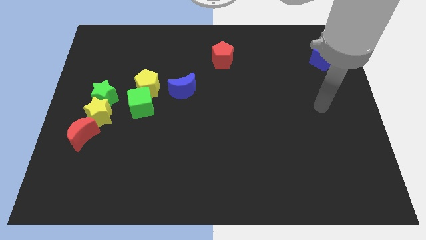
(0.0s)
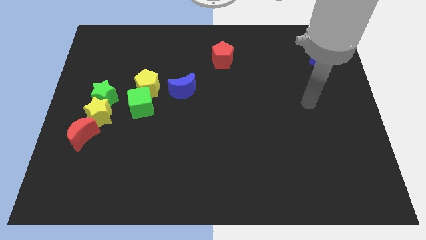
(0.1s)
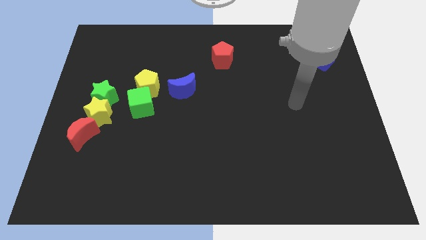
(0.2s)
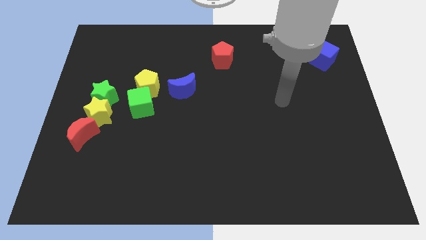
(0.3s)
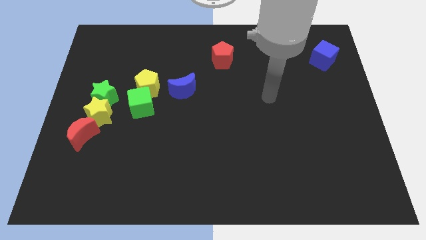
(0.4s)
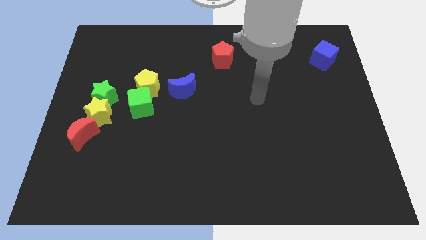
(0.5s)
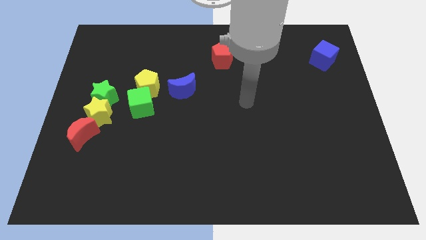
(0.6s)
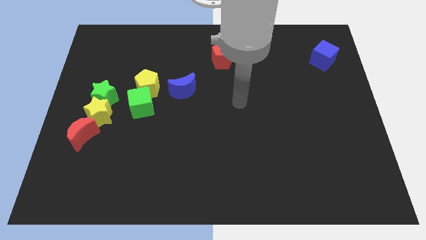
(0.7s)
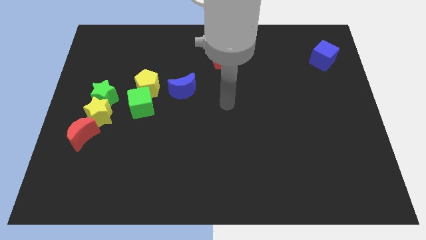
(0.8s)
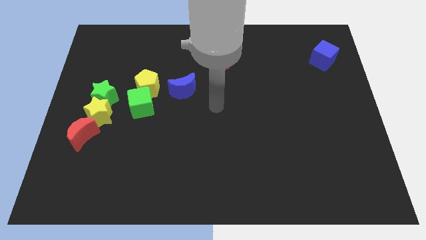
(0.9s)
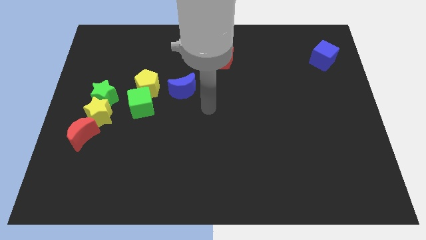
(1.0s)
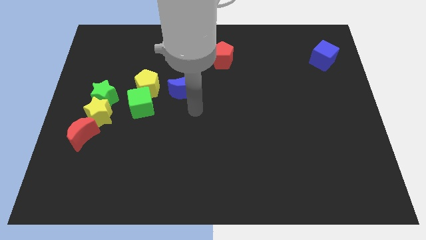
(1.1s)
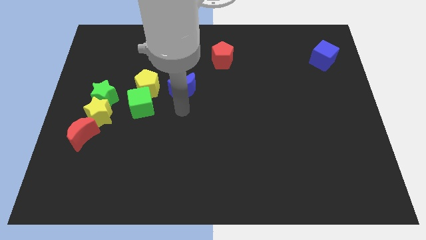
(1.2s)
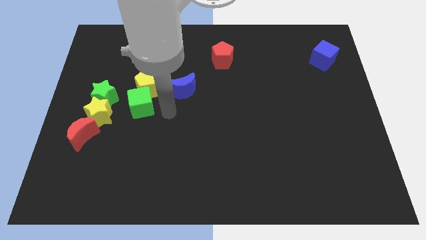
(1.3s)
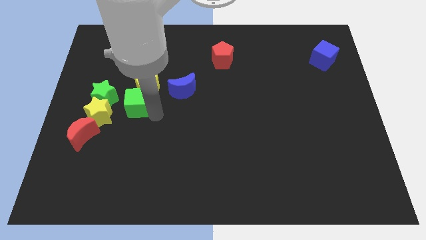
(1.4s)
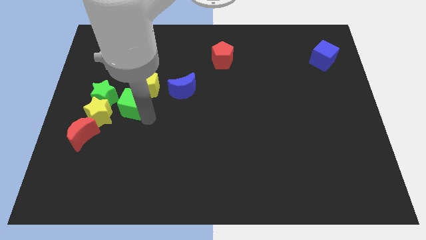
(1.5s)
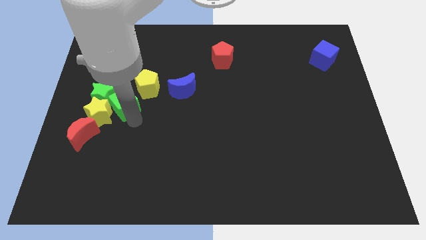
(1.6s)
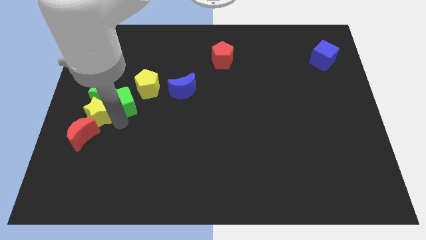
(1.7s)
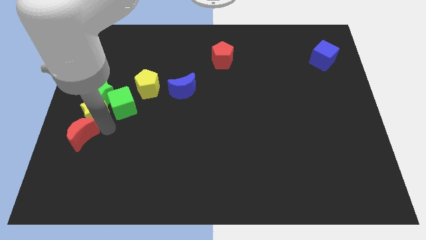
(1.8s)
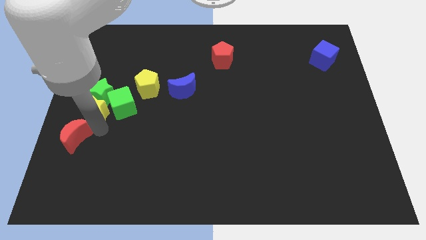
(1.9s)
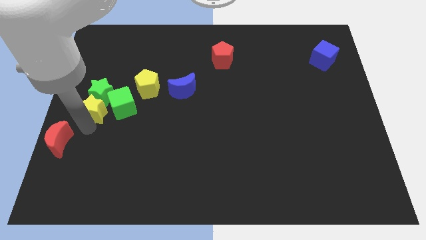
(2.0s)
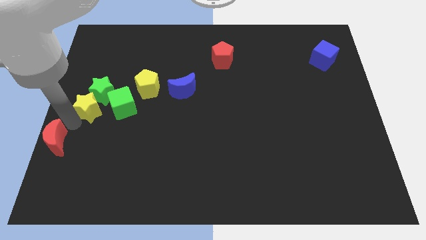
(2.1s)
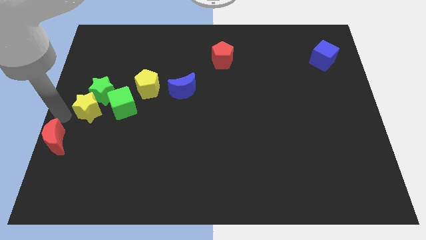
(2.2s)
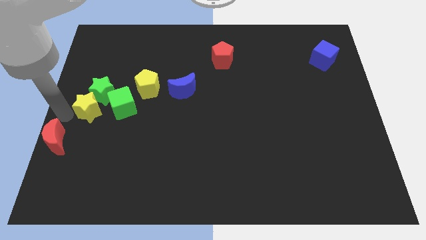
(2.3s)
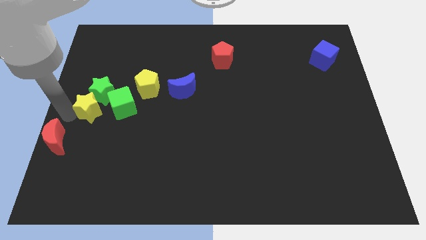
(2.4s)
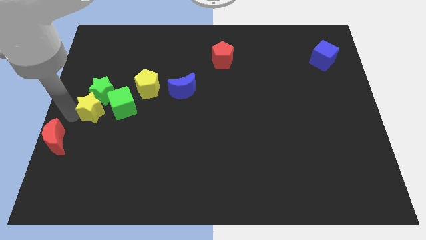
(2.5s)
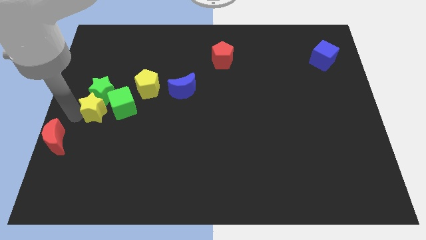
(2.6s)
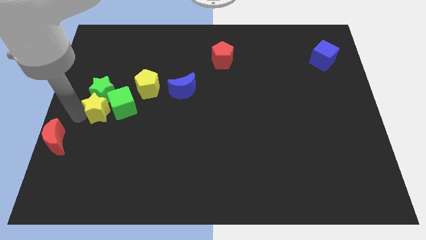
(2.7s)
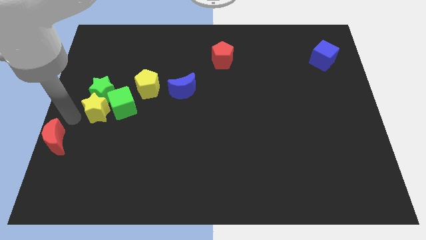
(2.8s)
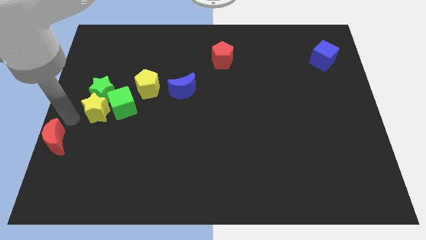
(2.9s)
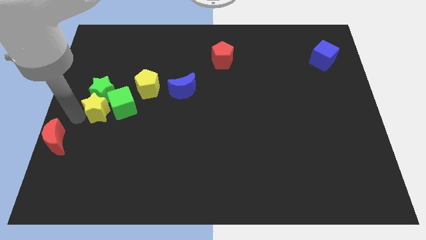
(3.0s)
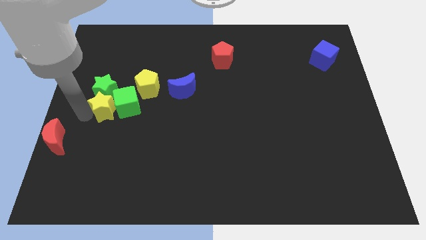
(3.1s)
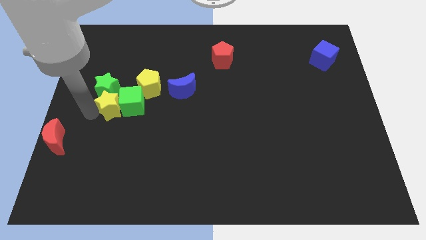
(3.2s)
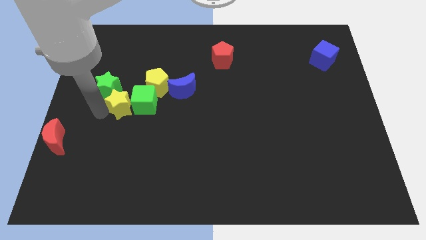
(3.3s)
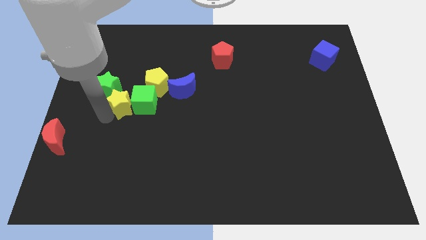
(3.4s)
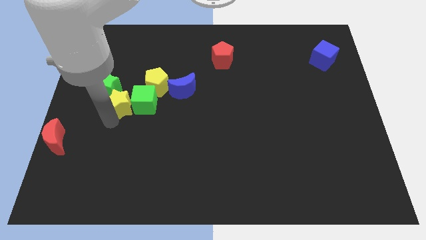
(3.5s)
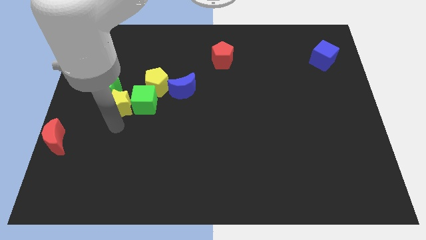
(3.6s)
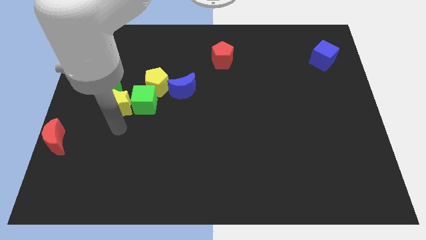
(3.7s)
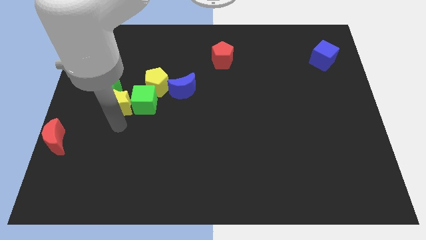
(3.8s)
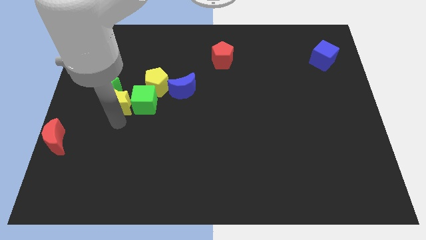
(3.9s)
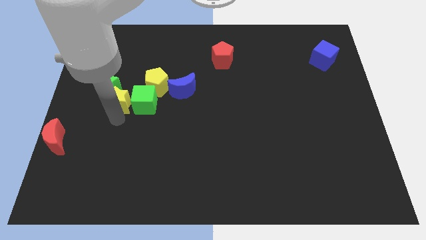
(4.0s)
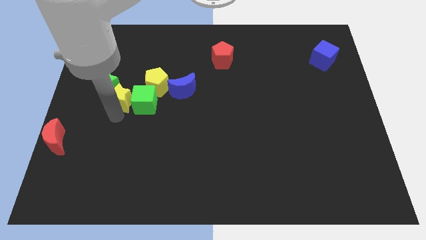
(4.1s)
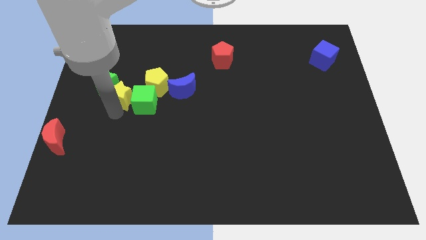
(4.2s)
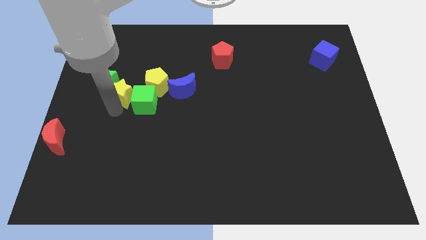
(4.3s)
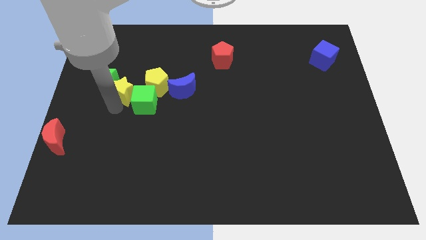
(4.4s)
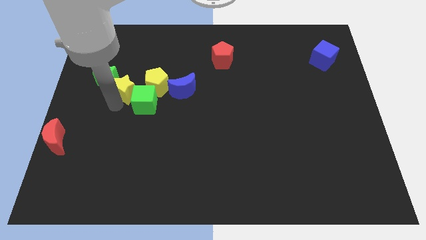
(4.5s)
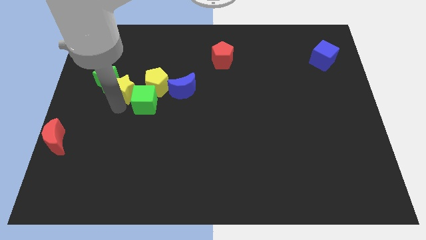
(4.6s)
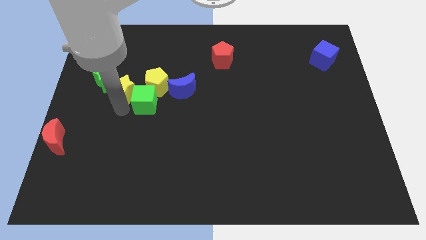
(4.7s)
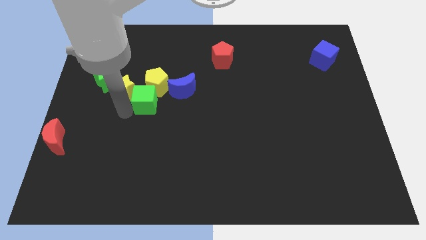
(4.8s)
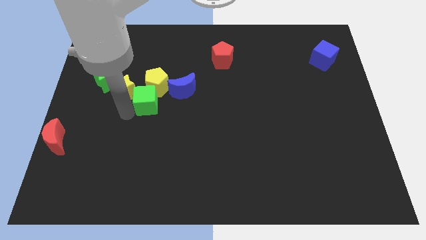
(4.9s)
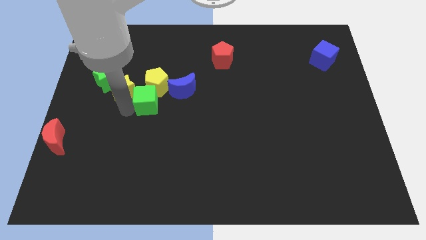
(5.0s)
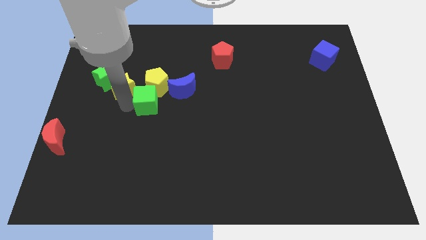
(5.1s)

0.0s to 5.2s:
slightly push the yellow star upwards

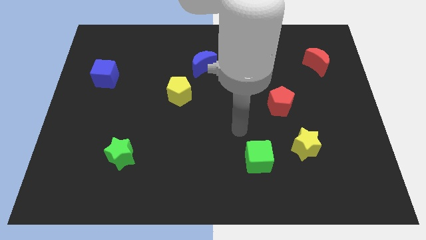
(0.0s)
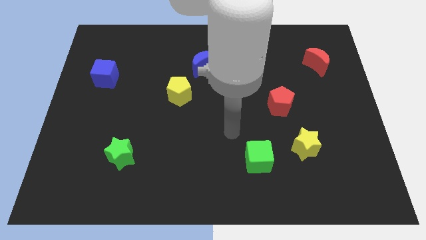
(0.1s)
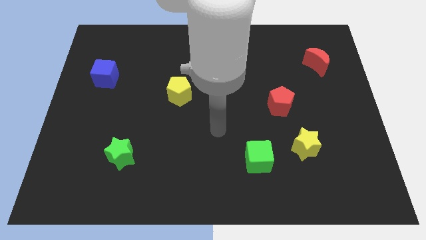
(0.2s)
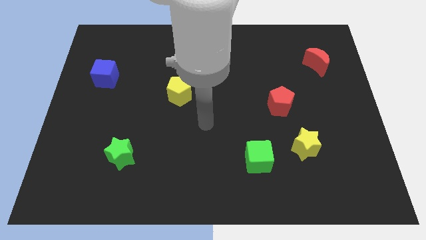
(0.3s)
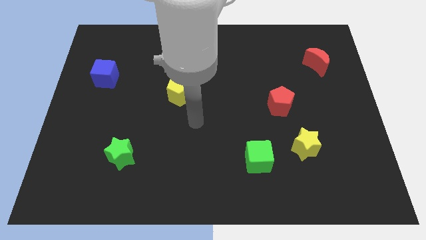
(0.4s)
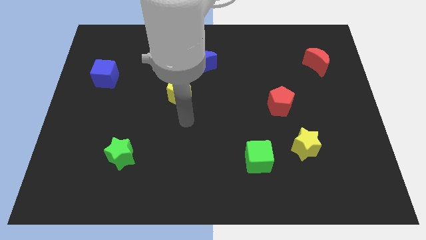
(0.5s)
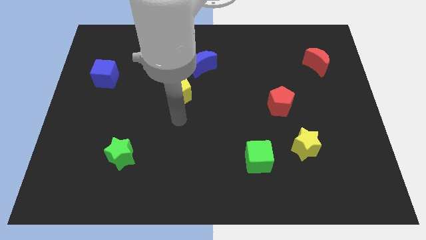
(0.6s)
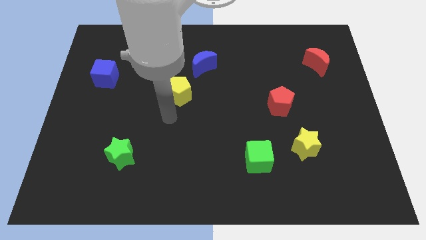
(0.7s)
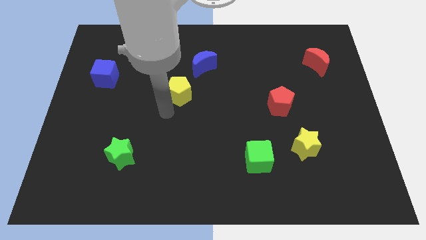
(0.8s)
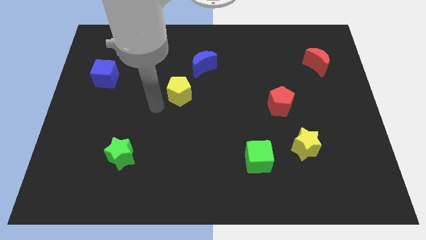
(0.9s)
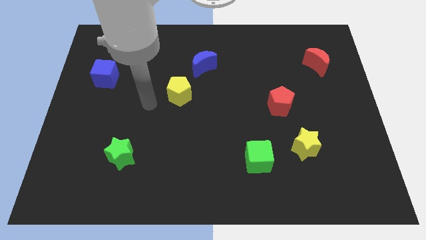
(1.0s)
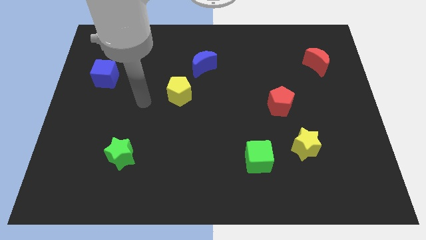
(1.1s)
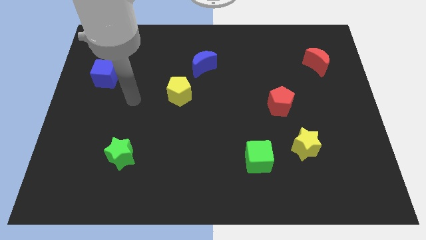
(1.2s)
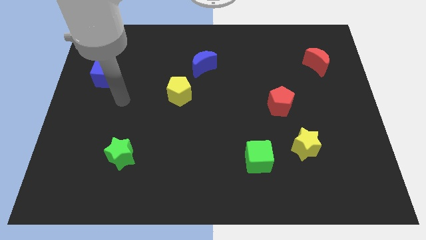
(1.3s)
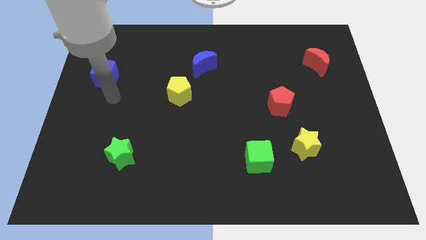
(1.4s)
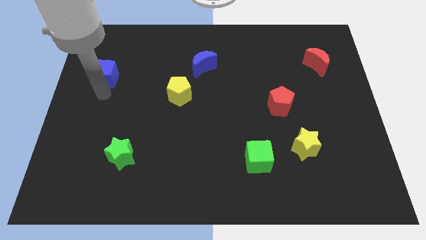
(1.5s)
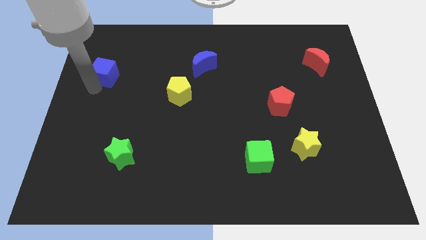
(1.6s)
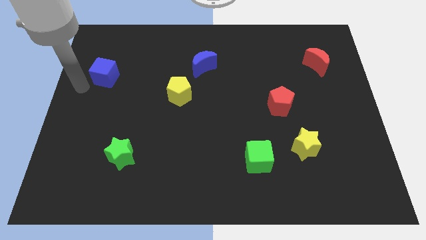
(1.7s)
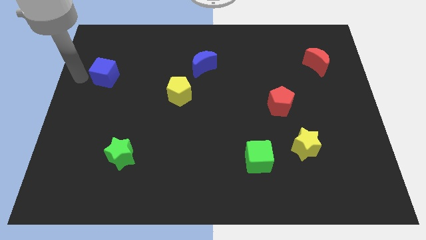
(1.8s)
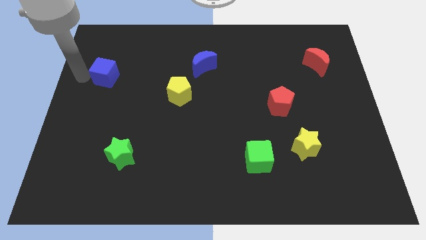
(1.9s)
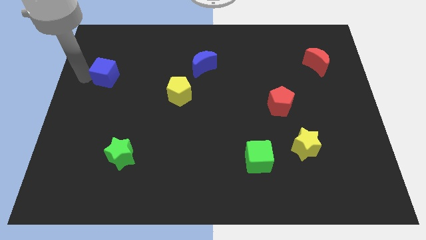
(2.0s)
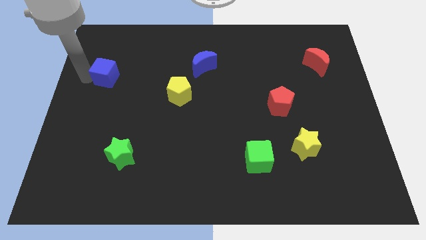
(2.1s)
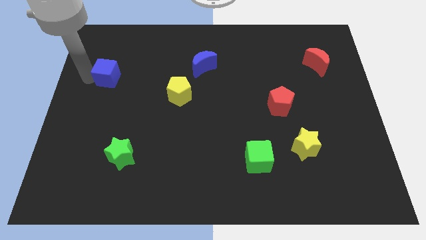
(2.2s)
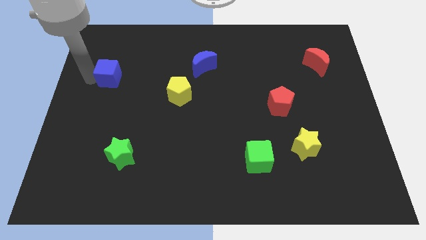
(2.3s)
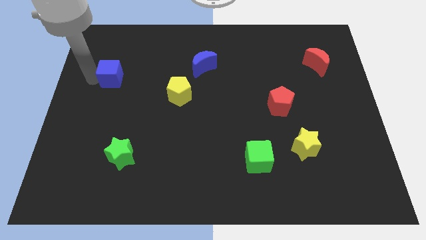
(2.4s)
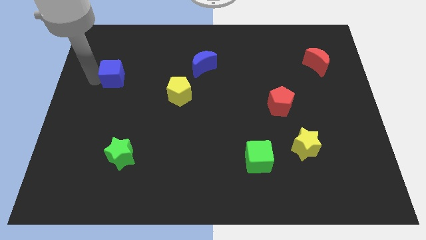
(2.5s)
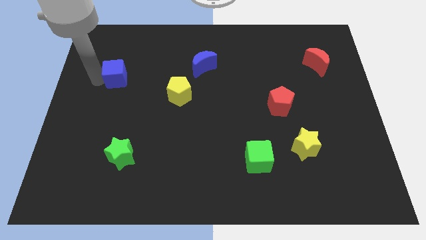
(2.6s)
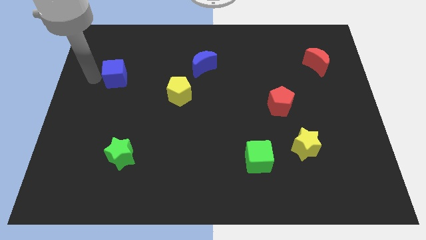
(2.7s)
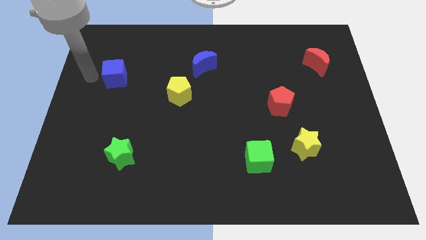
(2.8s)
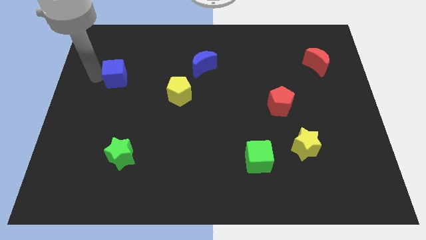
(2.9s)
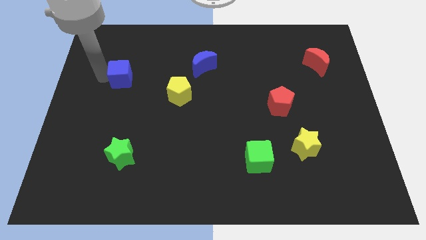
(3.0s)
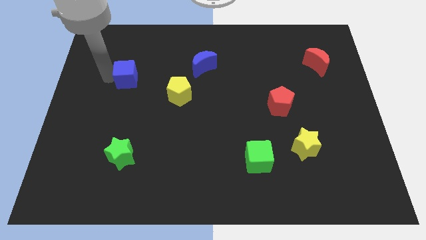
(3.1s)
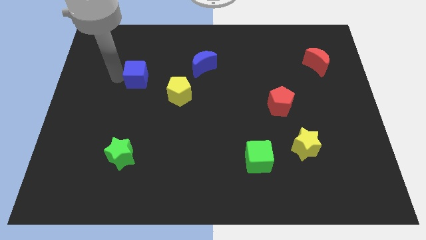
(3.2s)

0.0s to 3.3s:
slide the blue cube right a bit
